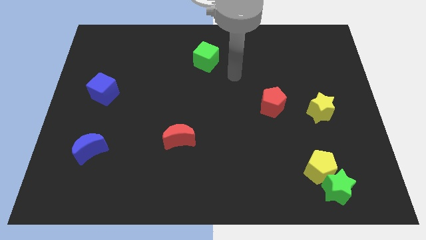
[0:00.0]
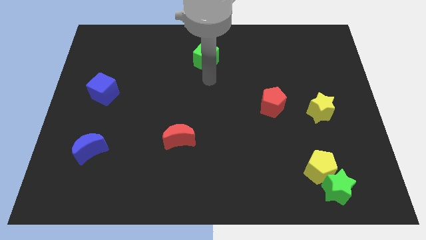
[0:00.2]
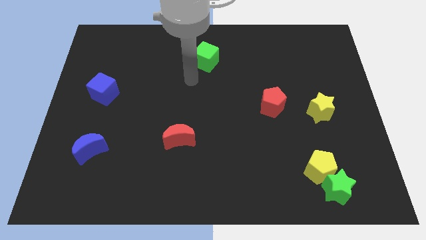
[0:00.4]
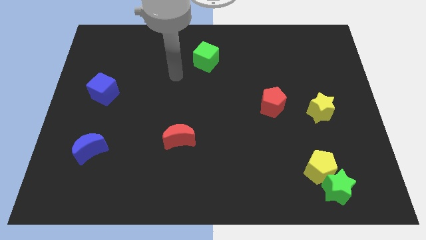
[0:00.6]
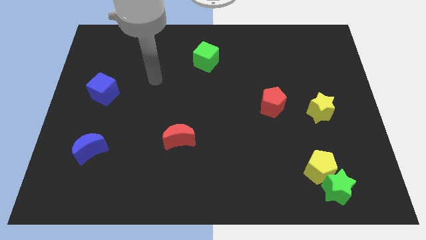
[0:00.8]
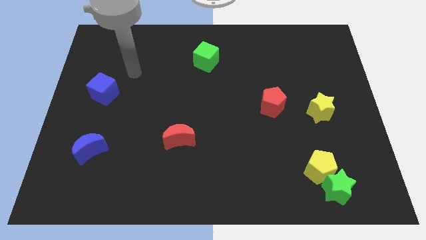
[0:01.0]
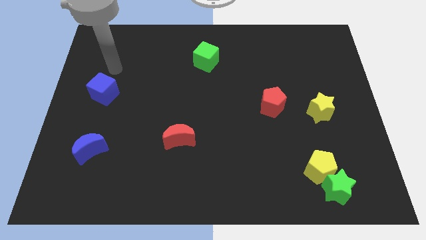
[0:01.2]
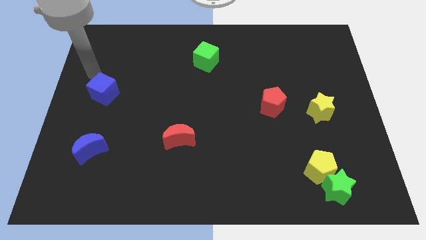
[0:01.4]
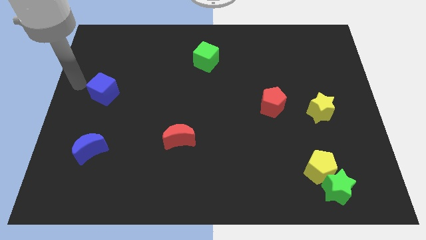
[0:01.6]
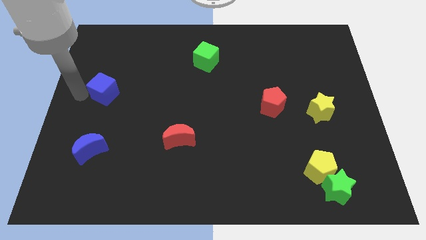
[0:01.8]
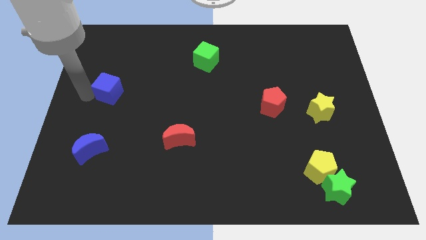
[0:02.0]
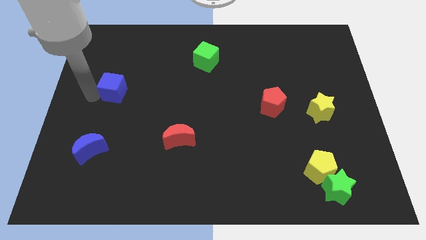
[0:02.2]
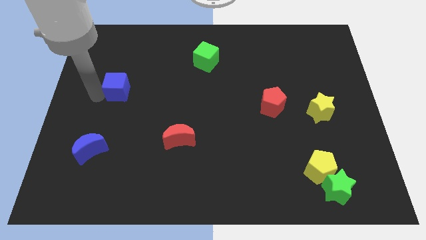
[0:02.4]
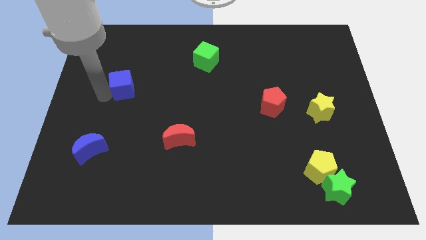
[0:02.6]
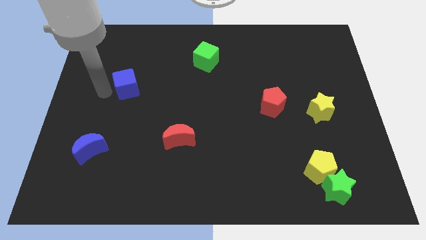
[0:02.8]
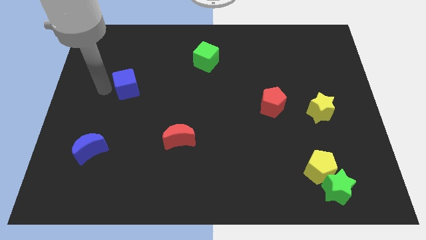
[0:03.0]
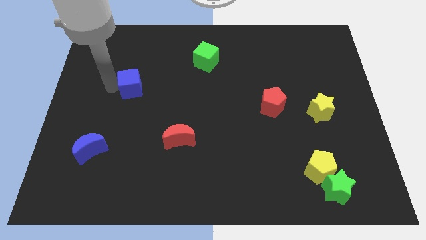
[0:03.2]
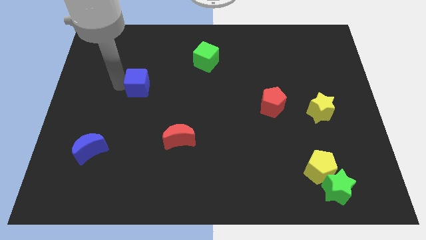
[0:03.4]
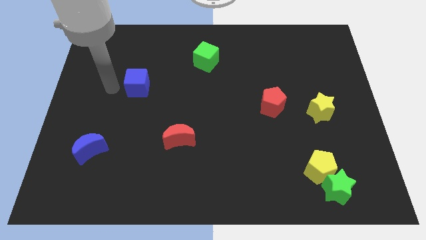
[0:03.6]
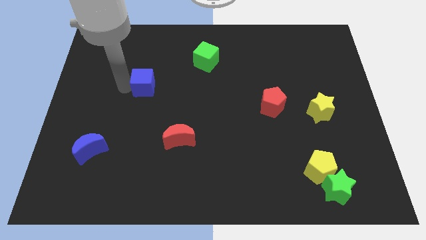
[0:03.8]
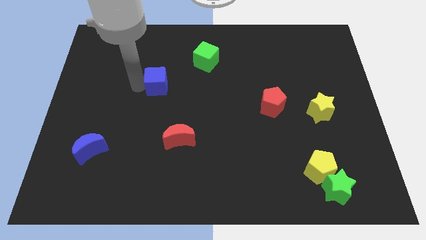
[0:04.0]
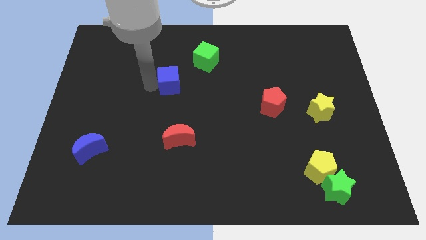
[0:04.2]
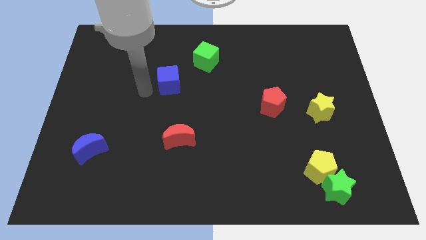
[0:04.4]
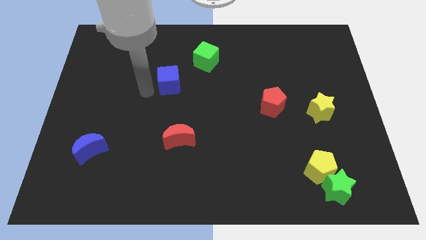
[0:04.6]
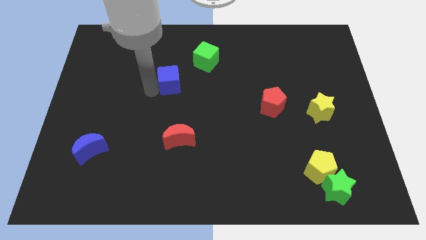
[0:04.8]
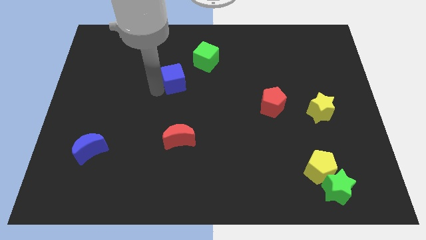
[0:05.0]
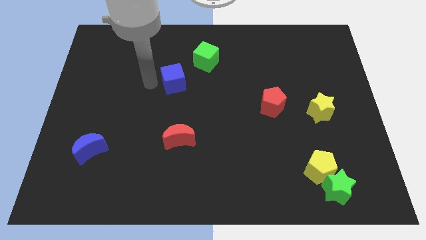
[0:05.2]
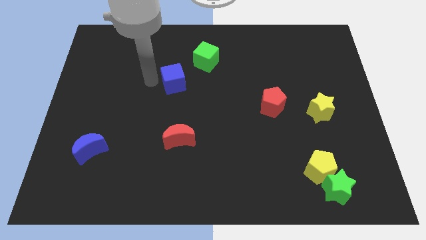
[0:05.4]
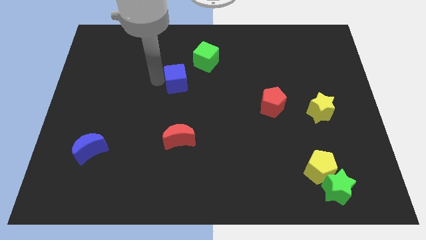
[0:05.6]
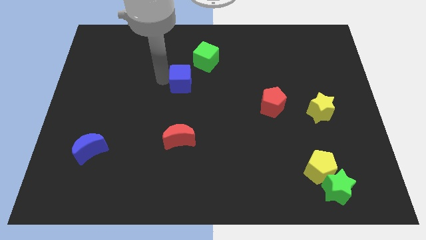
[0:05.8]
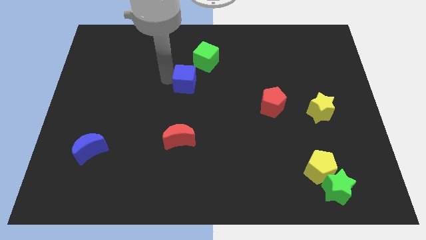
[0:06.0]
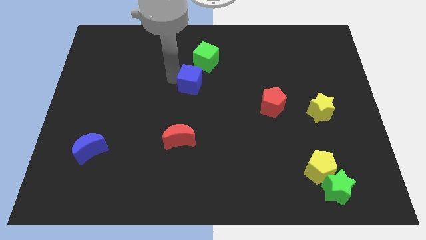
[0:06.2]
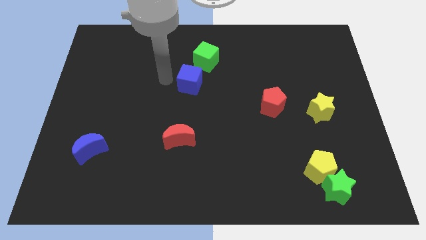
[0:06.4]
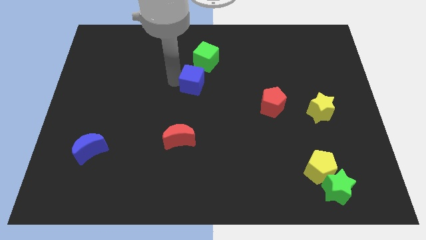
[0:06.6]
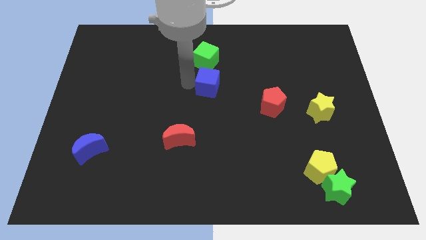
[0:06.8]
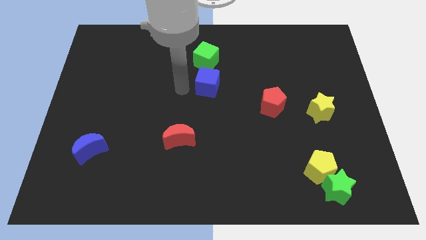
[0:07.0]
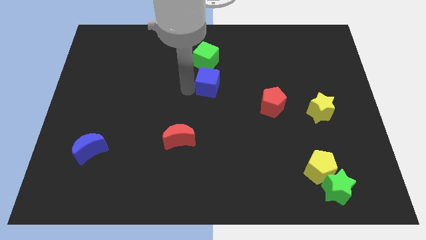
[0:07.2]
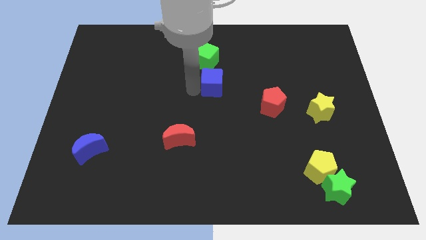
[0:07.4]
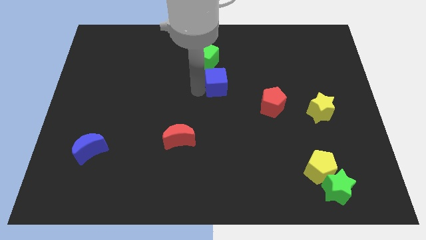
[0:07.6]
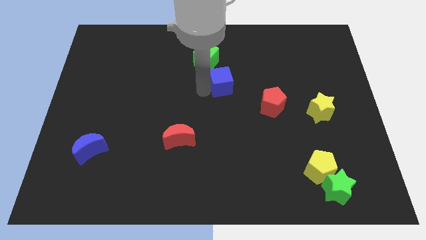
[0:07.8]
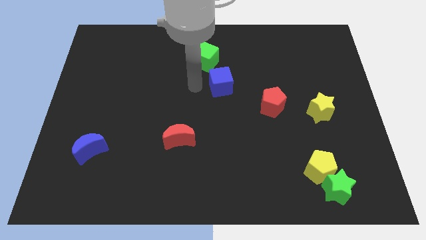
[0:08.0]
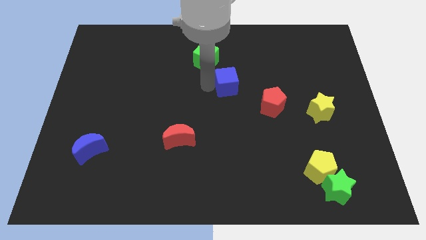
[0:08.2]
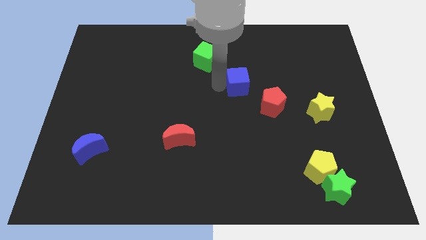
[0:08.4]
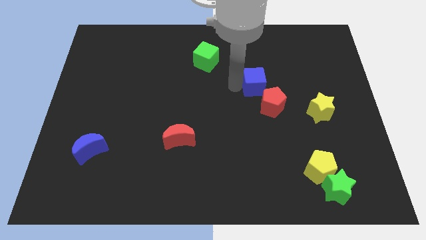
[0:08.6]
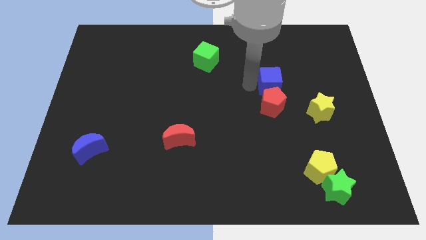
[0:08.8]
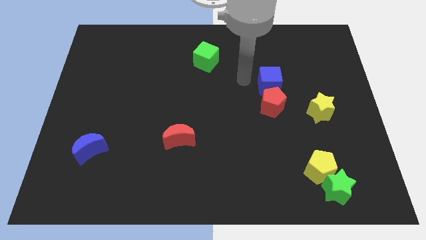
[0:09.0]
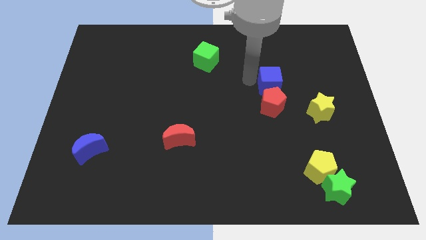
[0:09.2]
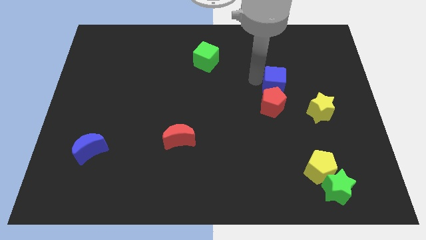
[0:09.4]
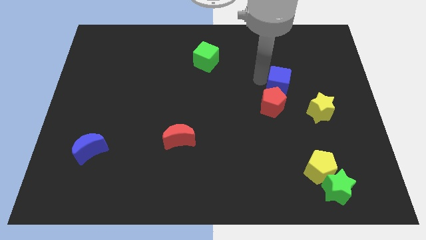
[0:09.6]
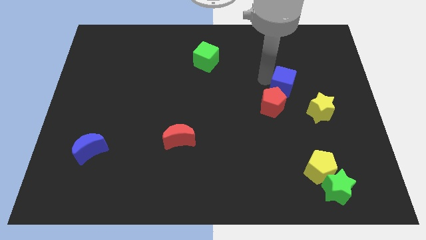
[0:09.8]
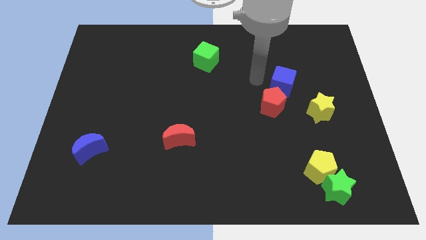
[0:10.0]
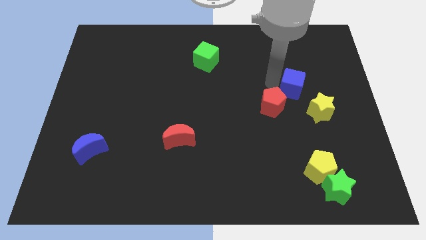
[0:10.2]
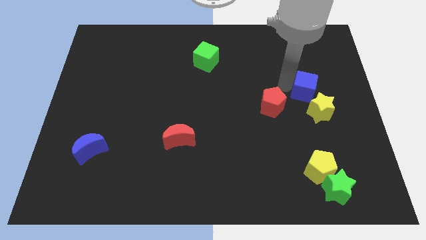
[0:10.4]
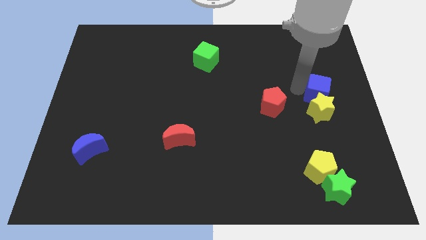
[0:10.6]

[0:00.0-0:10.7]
put the blue cube to the right side of the board

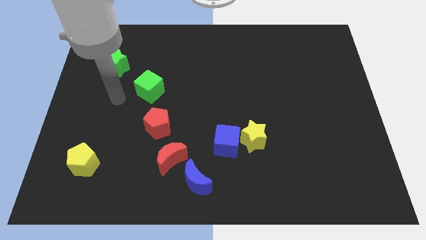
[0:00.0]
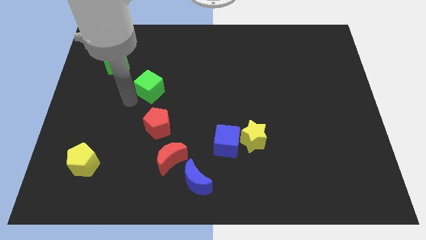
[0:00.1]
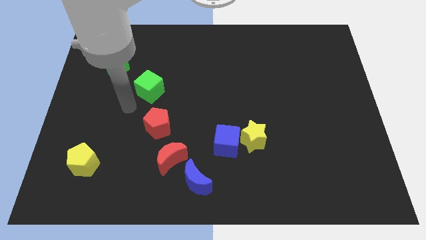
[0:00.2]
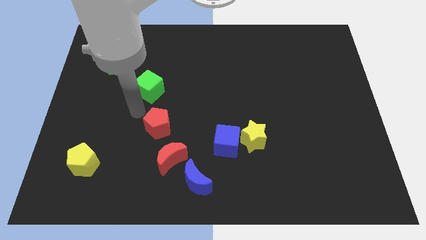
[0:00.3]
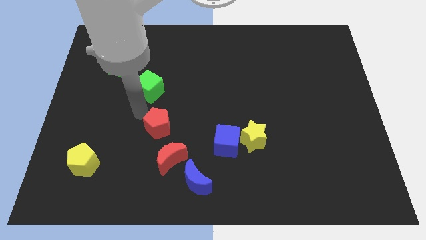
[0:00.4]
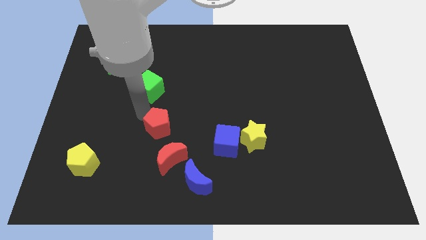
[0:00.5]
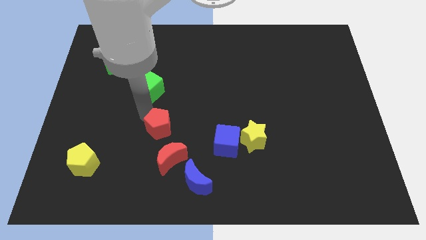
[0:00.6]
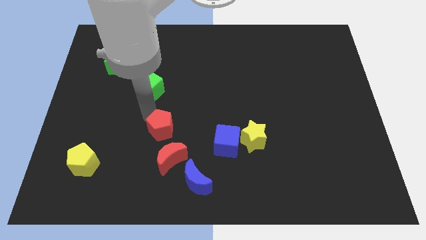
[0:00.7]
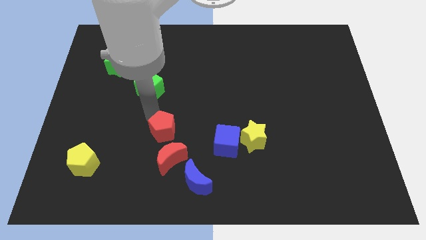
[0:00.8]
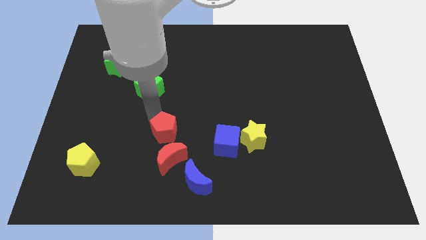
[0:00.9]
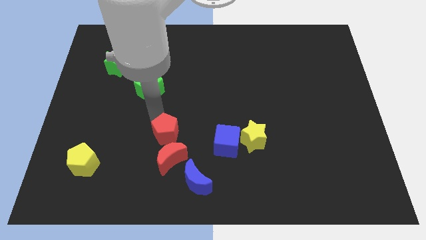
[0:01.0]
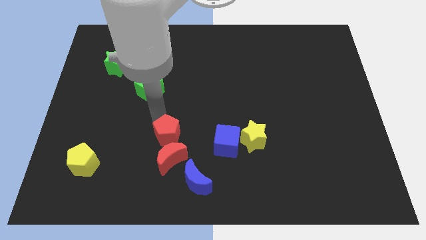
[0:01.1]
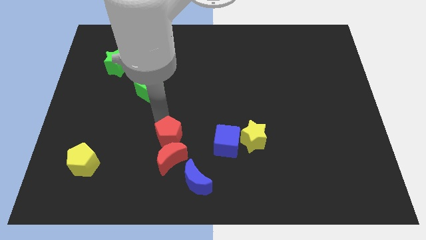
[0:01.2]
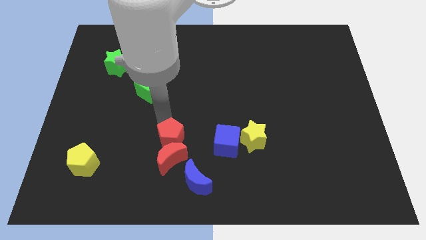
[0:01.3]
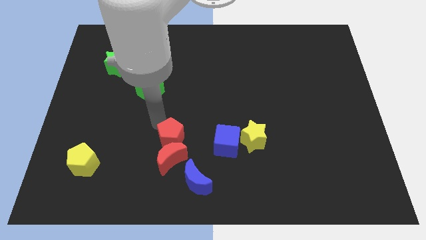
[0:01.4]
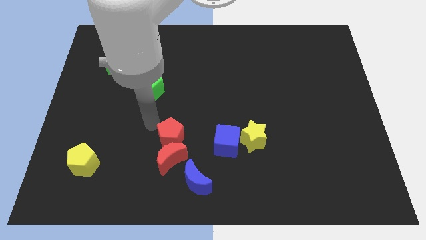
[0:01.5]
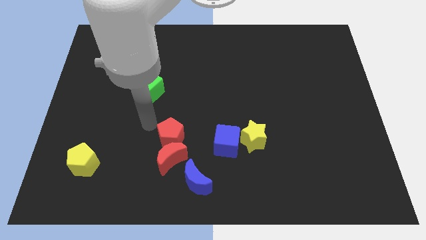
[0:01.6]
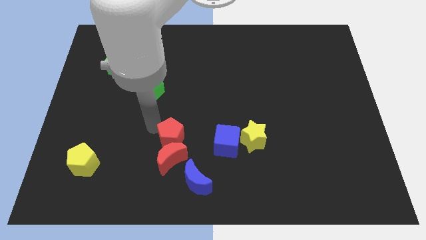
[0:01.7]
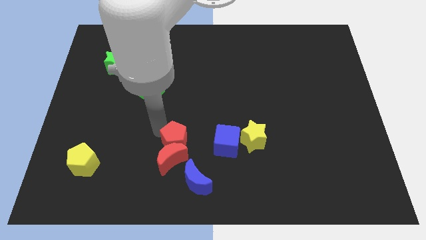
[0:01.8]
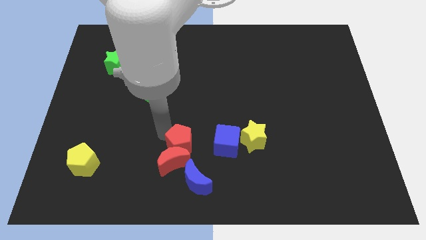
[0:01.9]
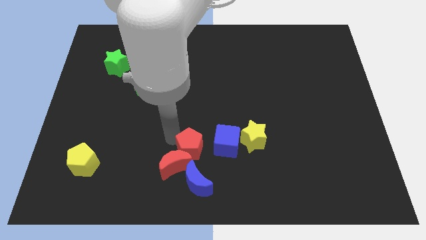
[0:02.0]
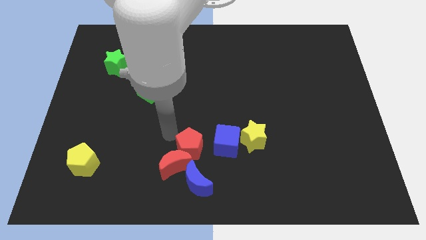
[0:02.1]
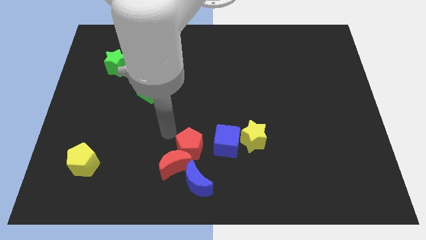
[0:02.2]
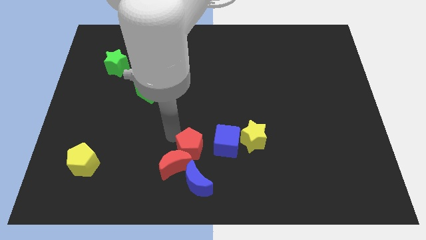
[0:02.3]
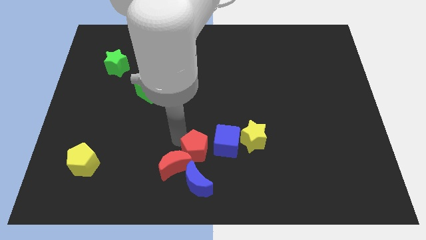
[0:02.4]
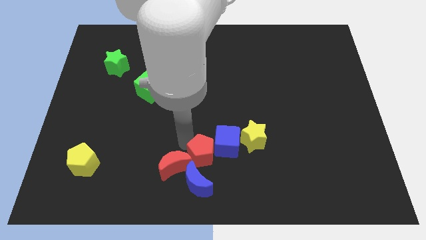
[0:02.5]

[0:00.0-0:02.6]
slide the red pentagon to the bottom side
